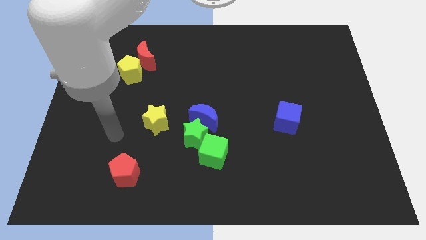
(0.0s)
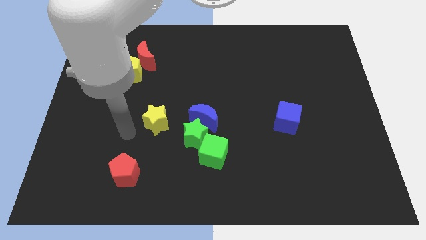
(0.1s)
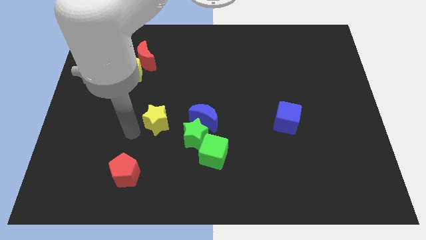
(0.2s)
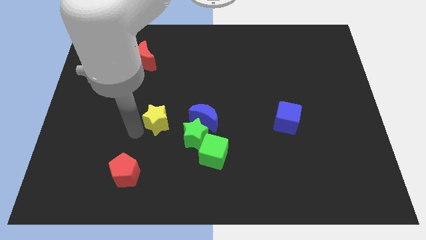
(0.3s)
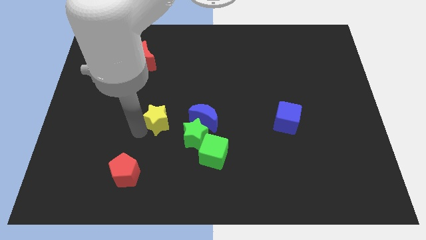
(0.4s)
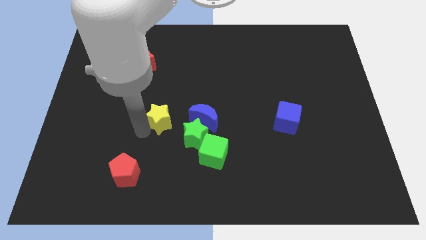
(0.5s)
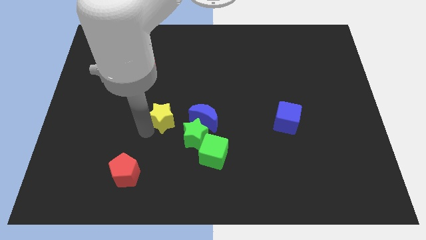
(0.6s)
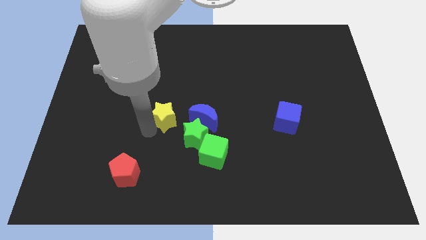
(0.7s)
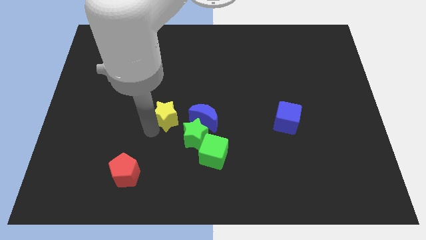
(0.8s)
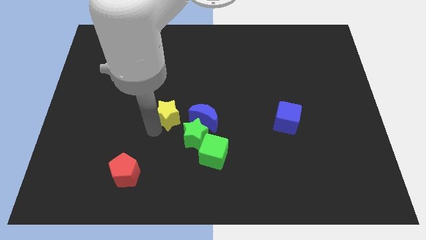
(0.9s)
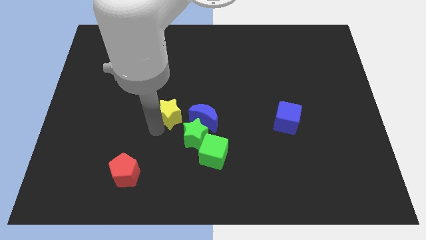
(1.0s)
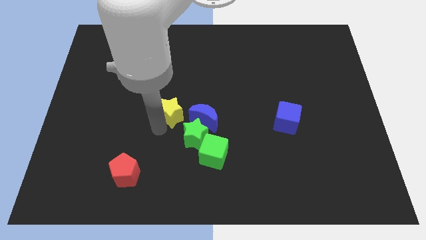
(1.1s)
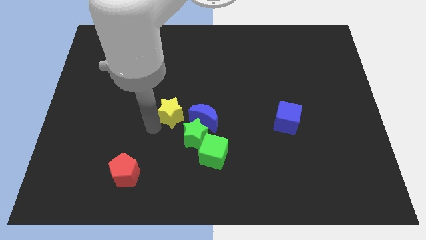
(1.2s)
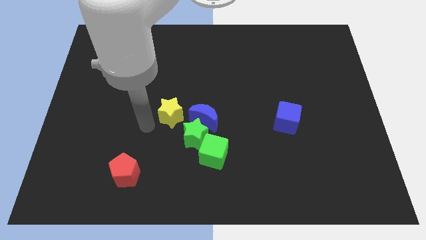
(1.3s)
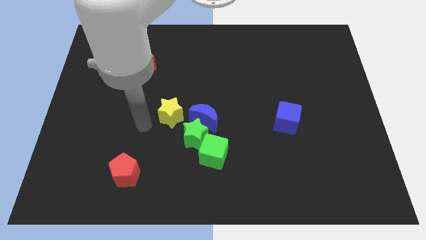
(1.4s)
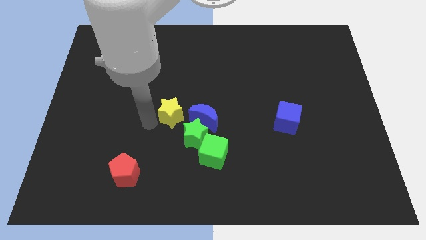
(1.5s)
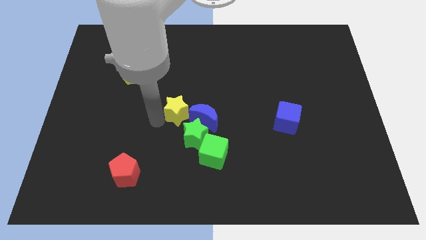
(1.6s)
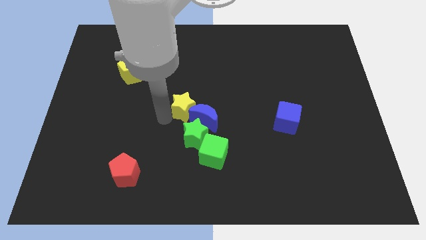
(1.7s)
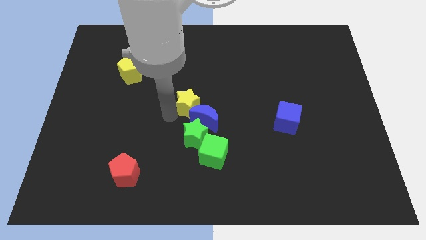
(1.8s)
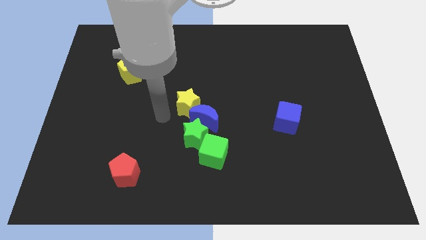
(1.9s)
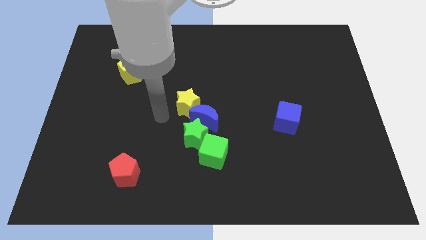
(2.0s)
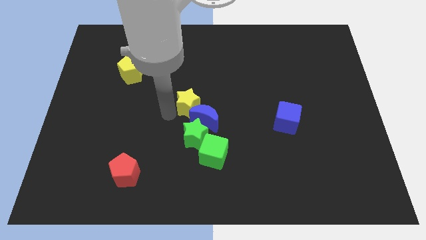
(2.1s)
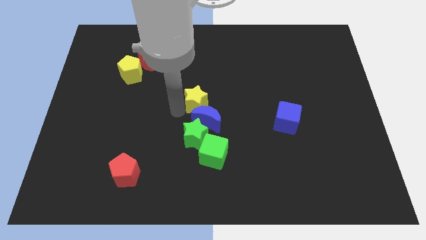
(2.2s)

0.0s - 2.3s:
move the yellow star a little bit right

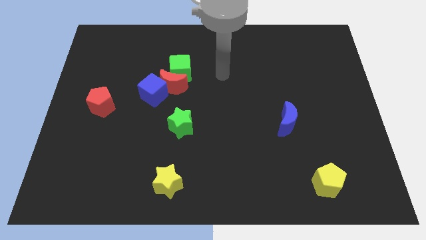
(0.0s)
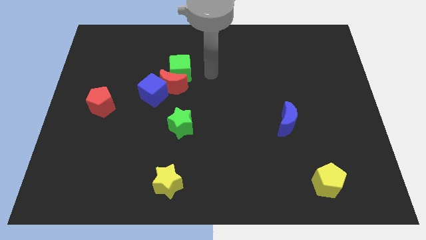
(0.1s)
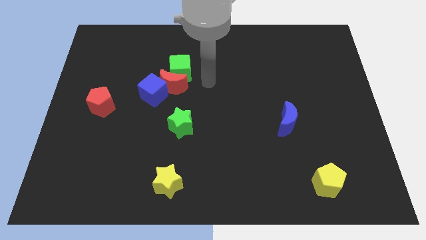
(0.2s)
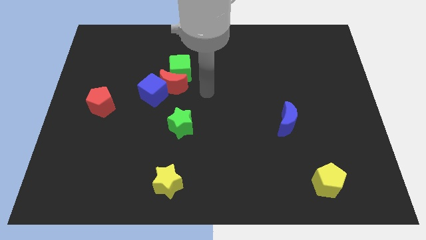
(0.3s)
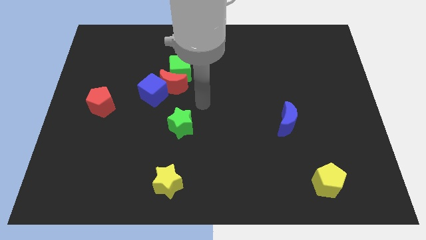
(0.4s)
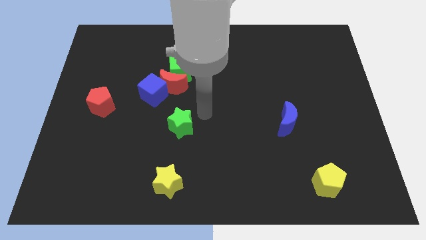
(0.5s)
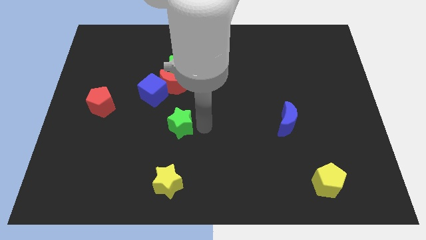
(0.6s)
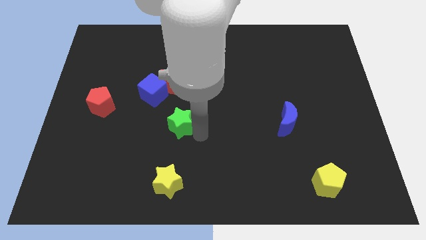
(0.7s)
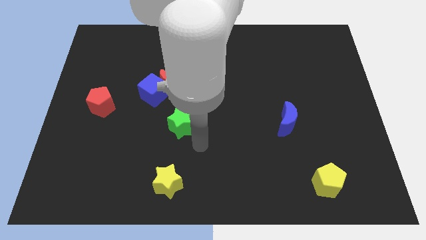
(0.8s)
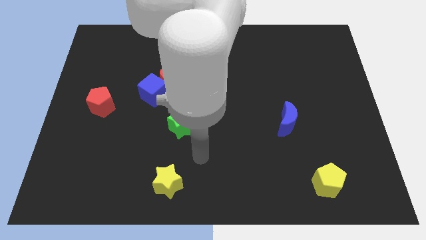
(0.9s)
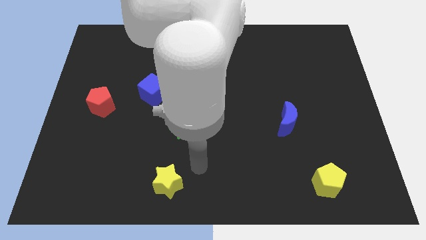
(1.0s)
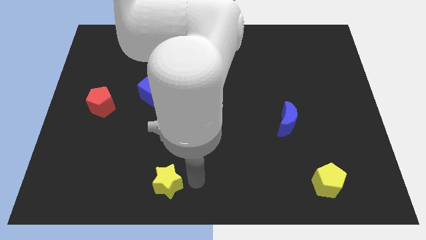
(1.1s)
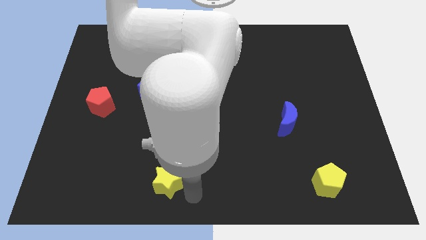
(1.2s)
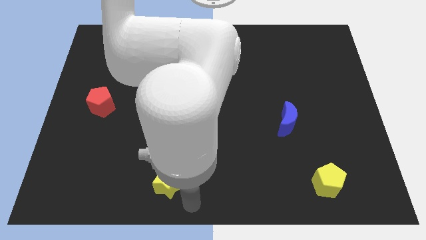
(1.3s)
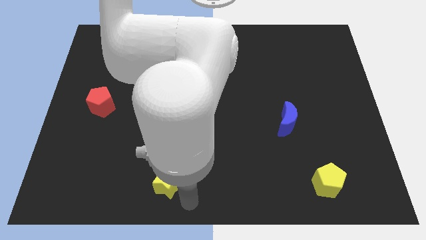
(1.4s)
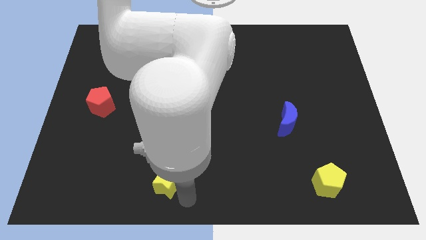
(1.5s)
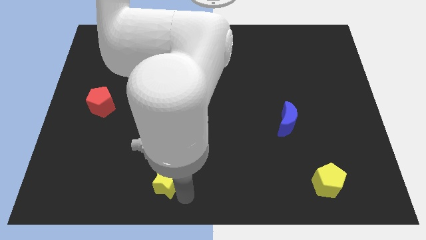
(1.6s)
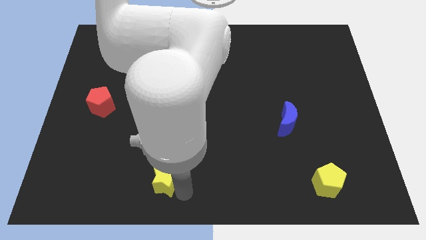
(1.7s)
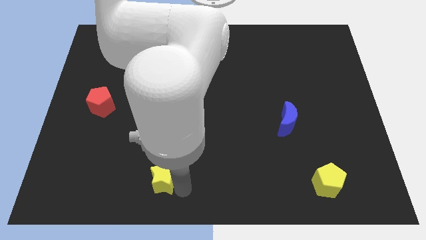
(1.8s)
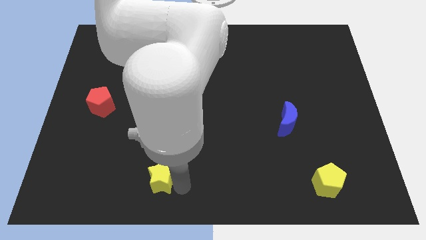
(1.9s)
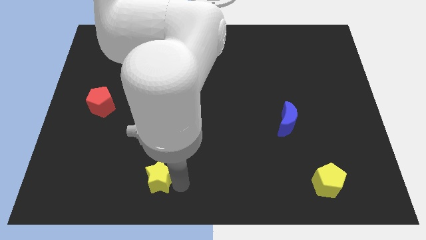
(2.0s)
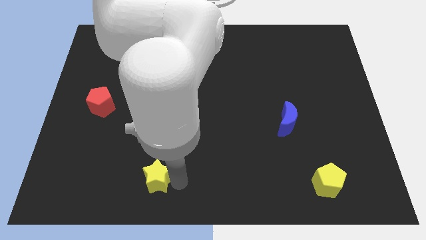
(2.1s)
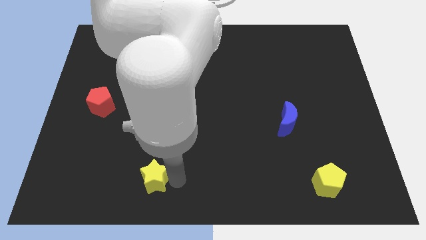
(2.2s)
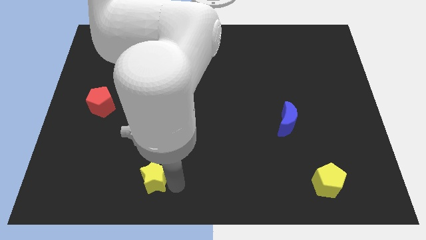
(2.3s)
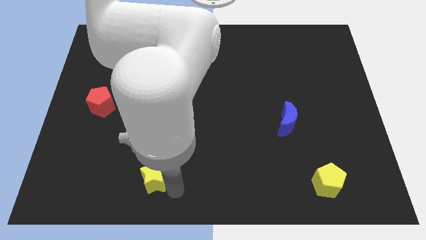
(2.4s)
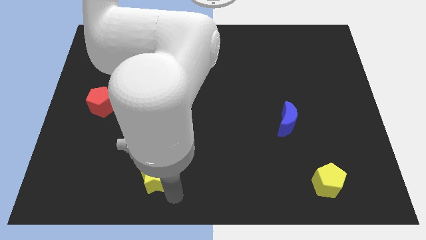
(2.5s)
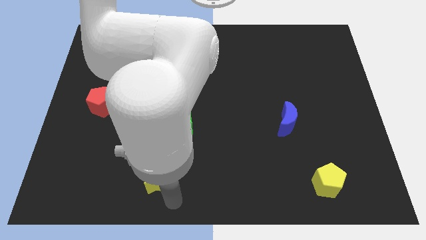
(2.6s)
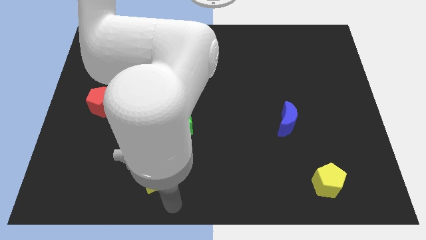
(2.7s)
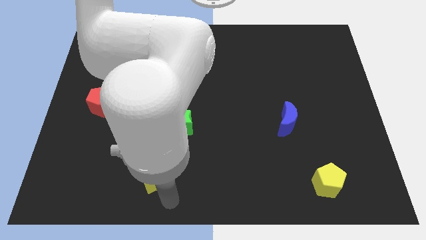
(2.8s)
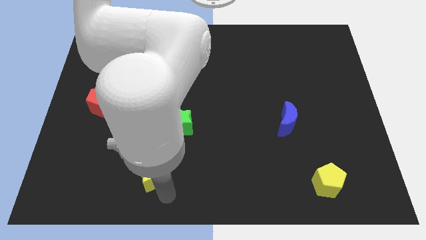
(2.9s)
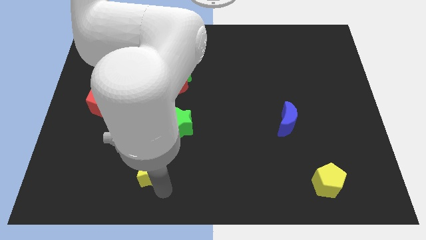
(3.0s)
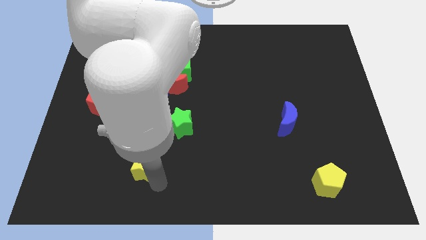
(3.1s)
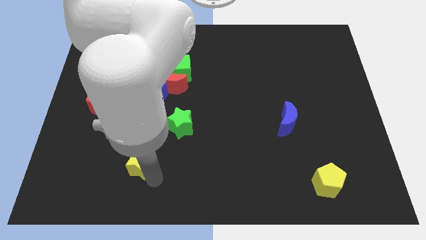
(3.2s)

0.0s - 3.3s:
move the yellow star upwards and then to the left a little

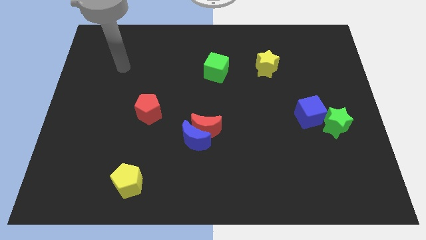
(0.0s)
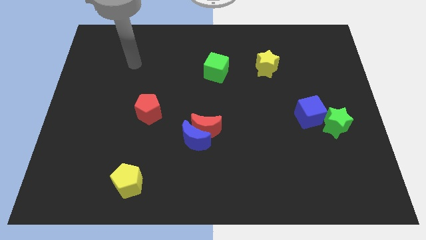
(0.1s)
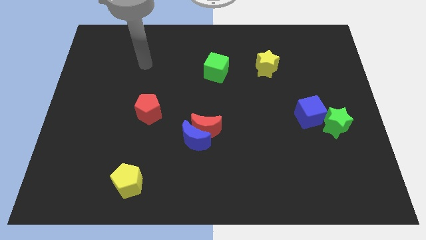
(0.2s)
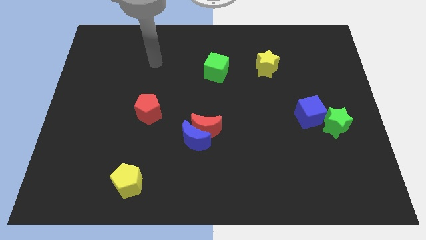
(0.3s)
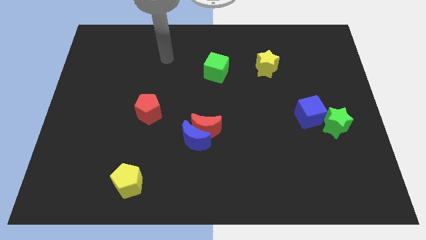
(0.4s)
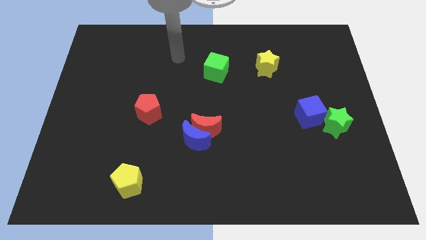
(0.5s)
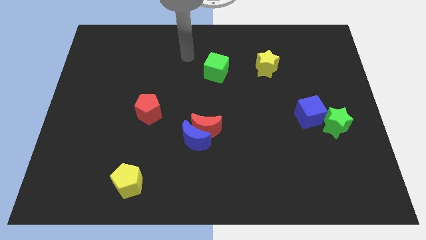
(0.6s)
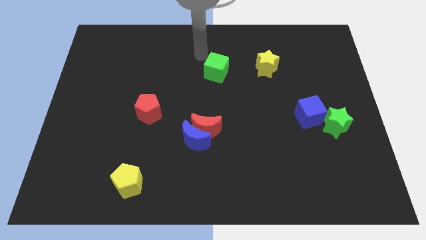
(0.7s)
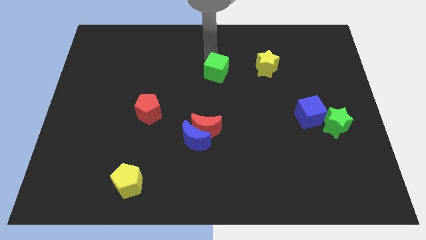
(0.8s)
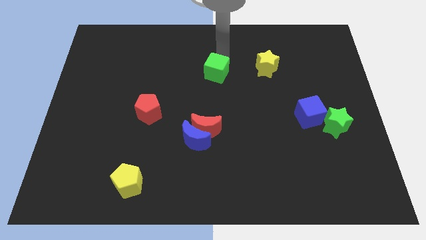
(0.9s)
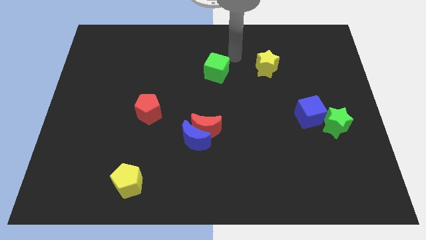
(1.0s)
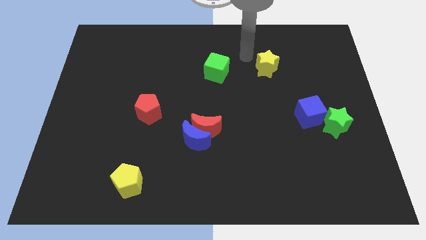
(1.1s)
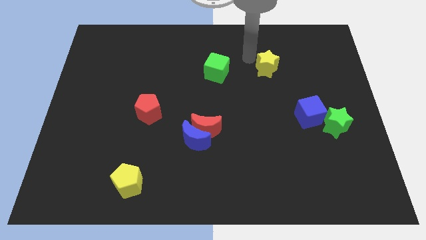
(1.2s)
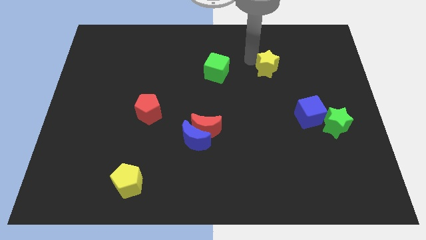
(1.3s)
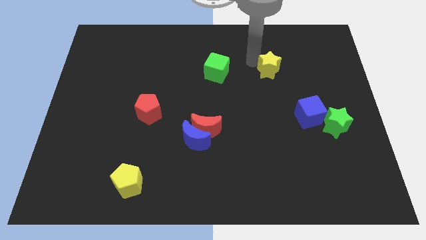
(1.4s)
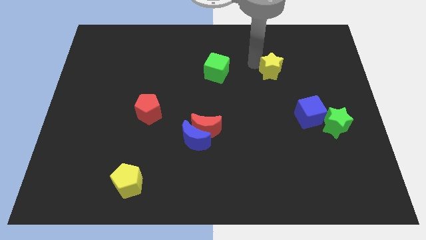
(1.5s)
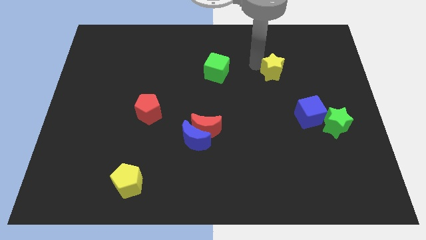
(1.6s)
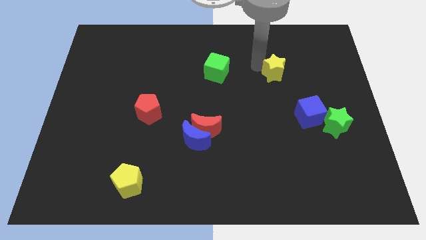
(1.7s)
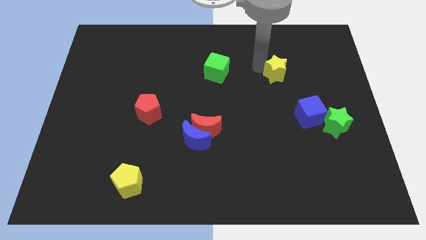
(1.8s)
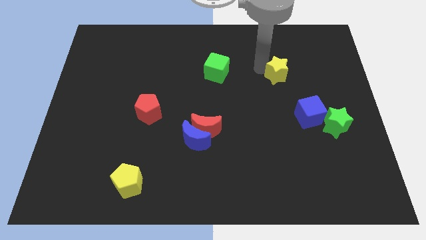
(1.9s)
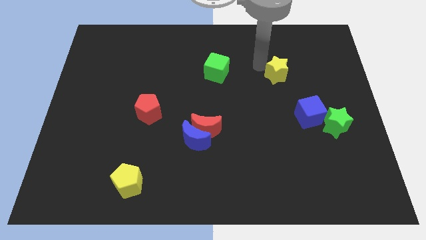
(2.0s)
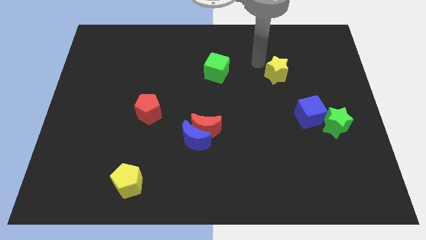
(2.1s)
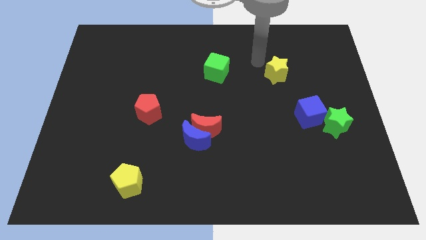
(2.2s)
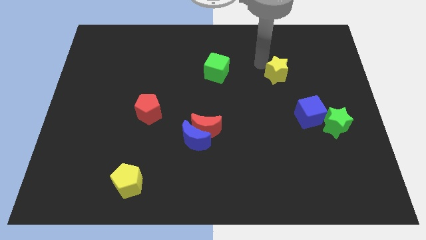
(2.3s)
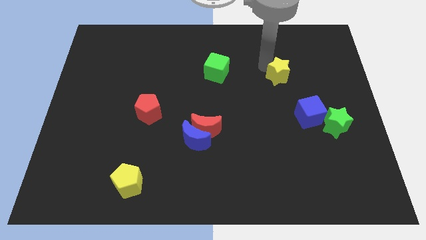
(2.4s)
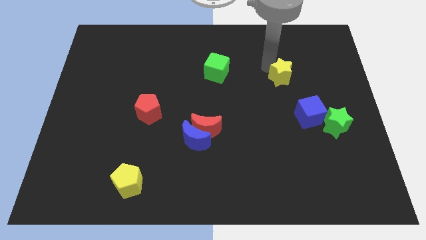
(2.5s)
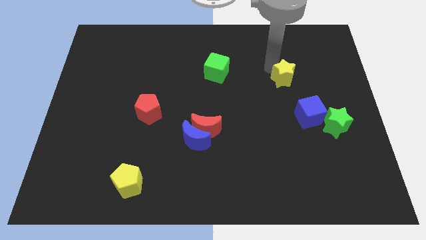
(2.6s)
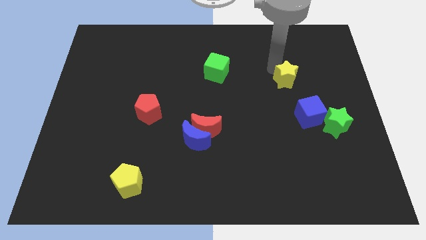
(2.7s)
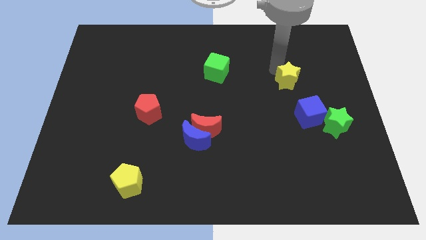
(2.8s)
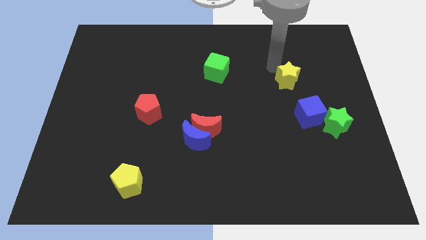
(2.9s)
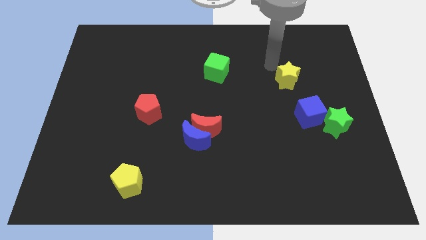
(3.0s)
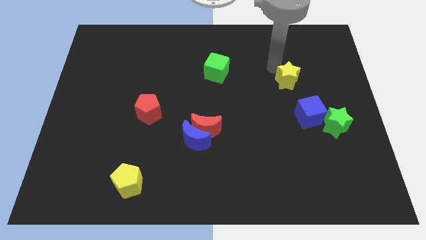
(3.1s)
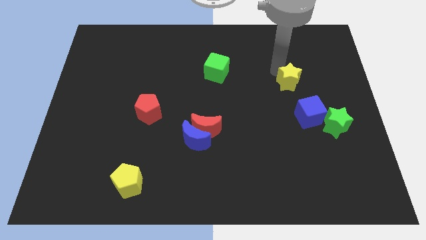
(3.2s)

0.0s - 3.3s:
move the yellow star slightly down and to the right
